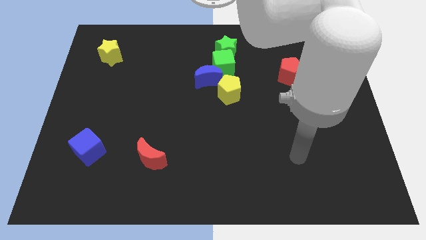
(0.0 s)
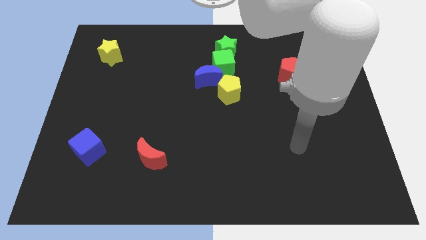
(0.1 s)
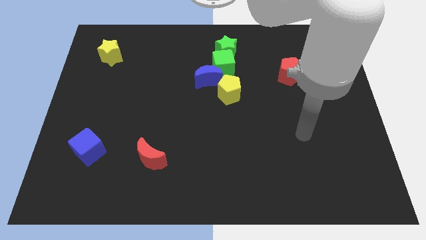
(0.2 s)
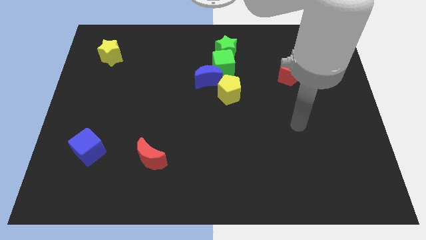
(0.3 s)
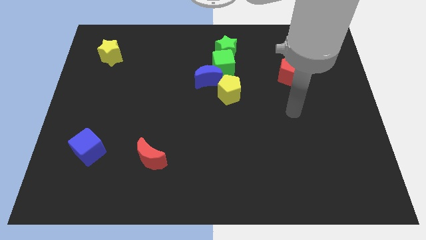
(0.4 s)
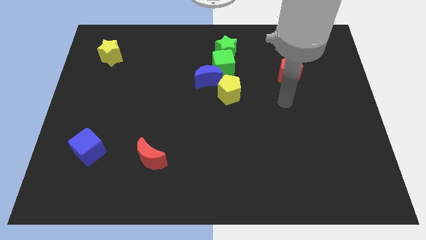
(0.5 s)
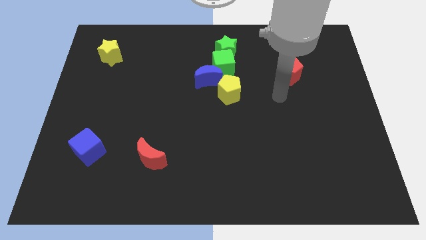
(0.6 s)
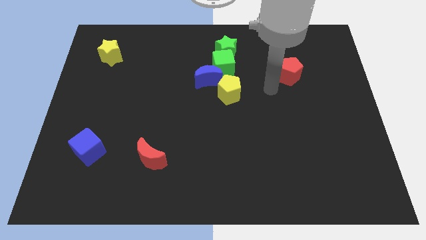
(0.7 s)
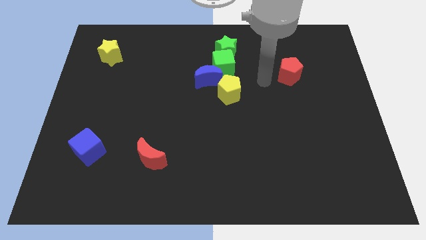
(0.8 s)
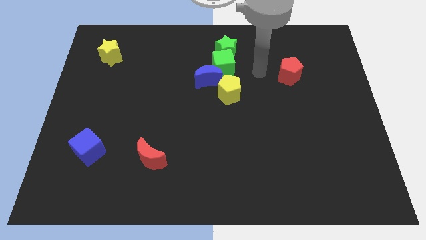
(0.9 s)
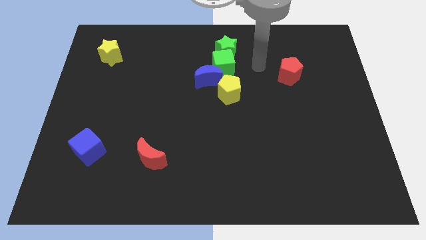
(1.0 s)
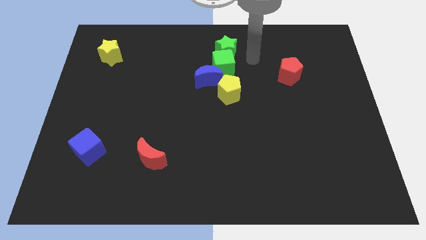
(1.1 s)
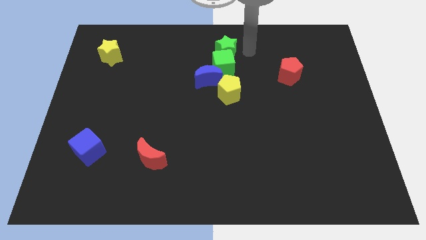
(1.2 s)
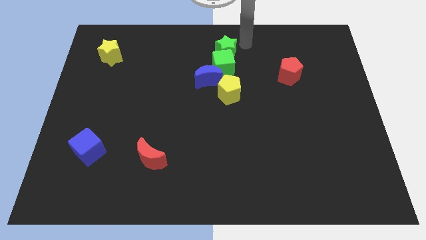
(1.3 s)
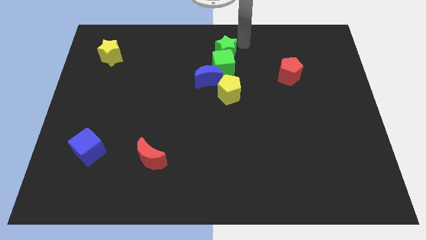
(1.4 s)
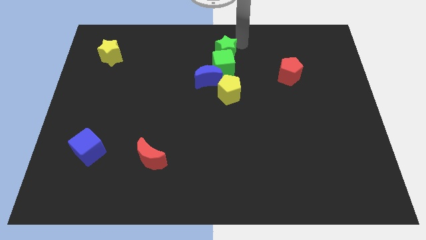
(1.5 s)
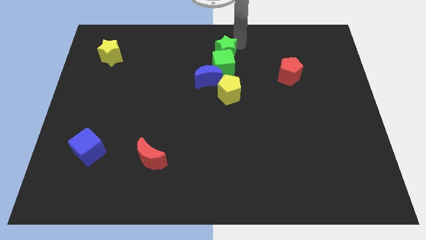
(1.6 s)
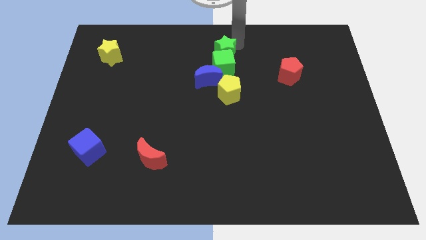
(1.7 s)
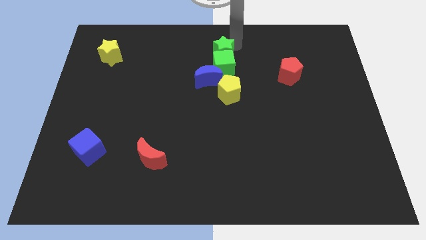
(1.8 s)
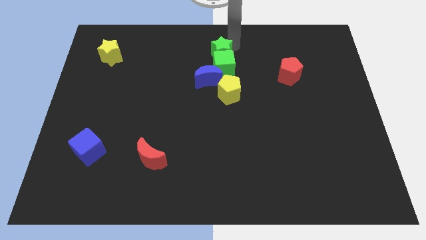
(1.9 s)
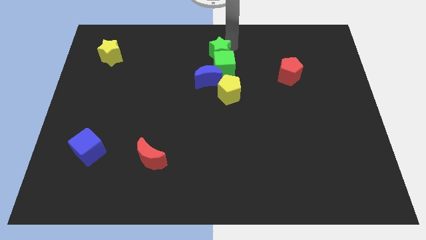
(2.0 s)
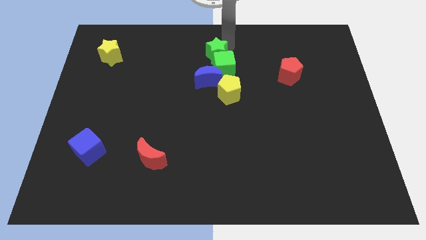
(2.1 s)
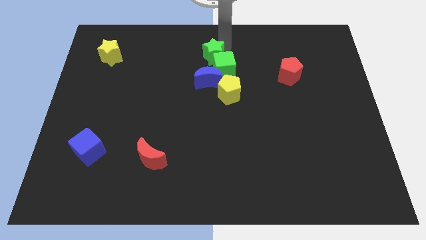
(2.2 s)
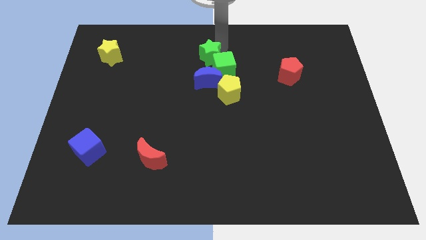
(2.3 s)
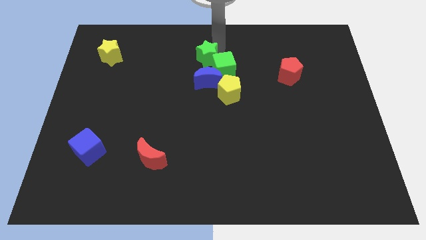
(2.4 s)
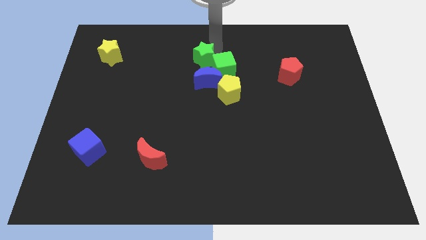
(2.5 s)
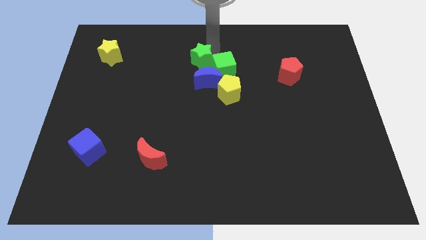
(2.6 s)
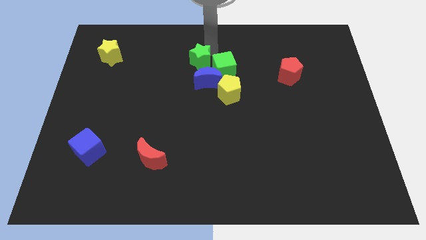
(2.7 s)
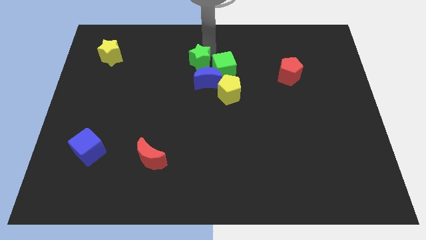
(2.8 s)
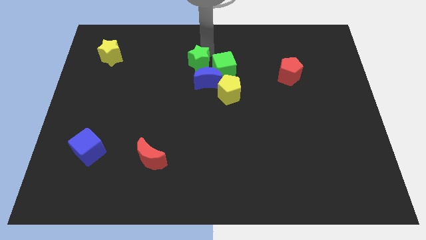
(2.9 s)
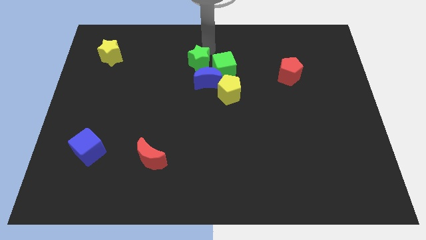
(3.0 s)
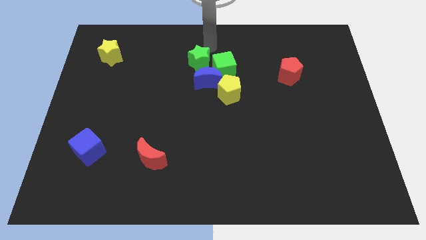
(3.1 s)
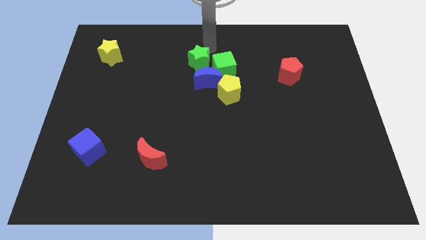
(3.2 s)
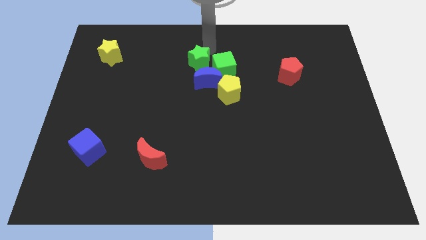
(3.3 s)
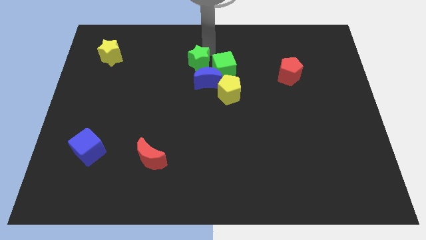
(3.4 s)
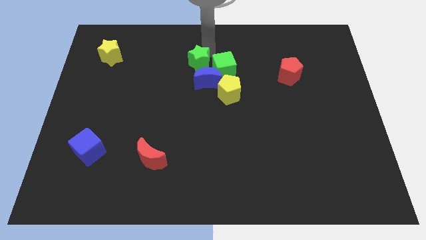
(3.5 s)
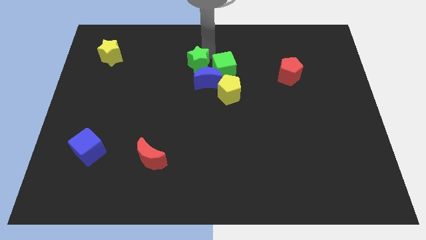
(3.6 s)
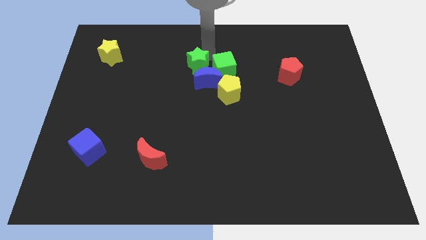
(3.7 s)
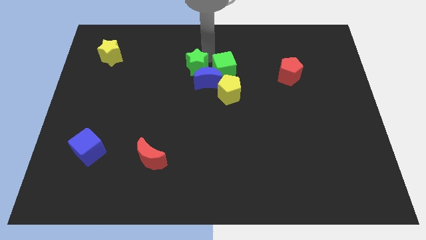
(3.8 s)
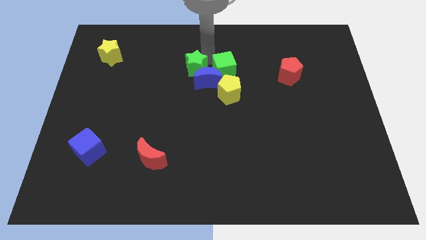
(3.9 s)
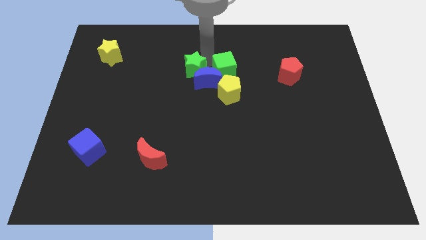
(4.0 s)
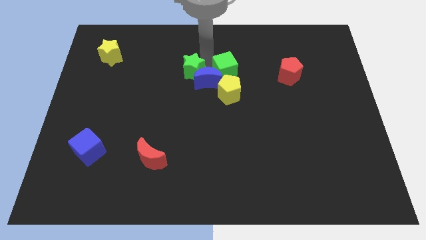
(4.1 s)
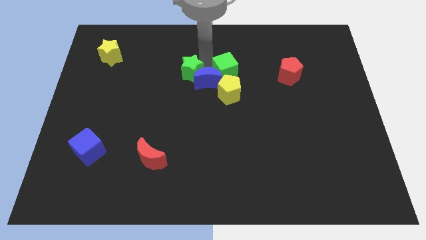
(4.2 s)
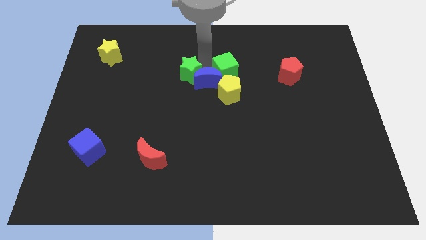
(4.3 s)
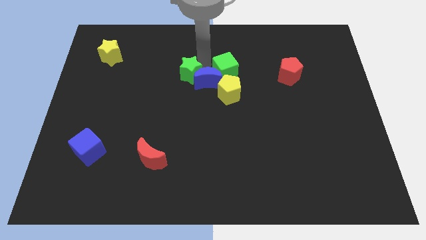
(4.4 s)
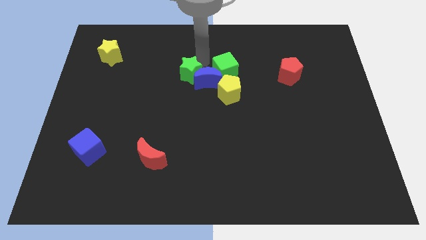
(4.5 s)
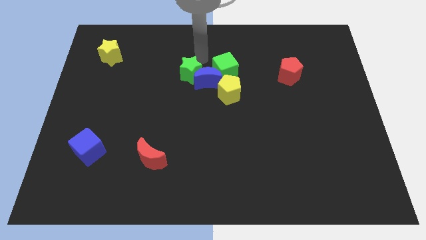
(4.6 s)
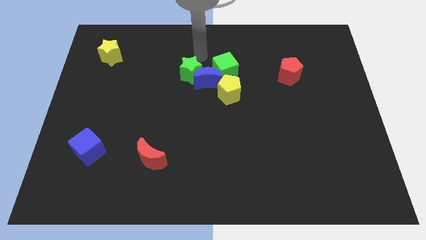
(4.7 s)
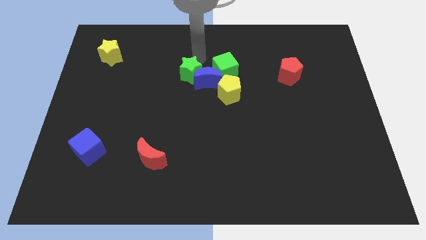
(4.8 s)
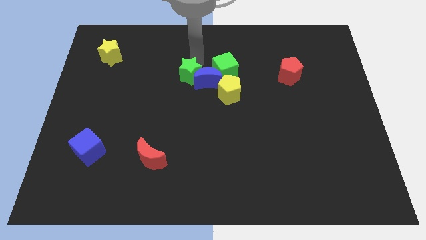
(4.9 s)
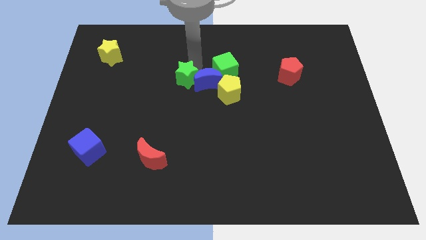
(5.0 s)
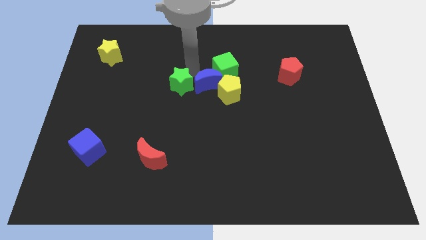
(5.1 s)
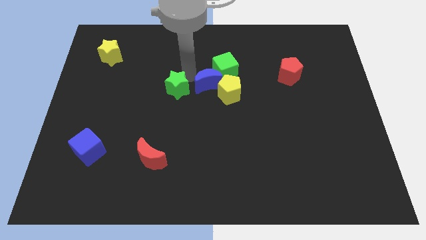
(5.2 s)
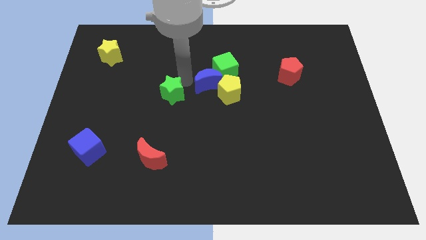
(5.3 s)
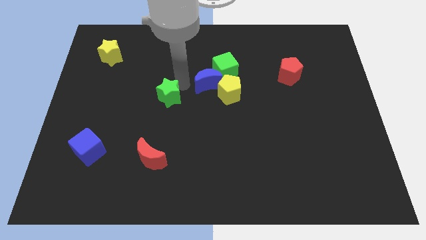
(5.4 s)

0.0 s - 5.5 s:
slide the green star downwards and then to the left

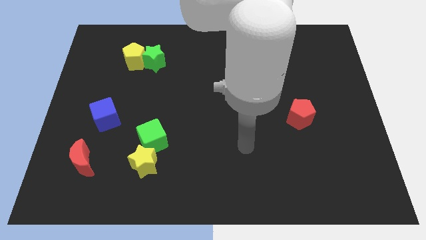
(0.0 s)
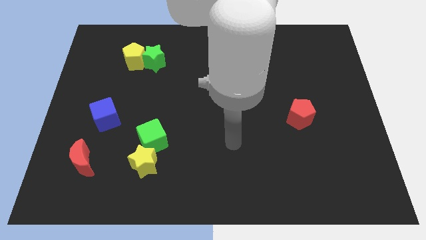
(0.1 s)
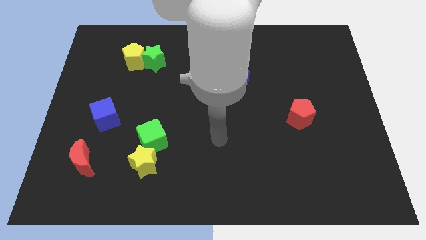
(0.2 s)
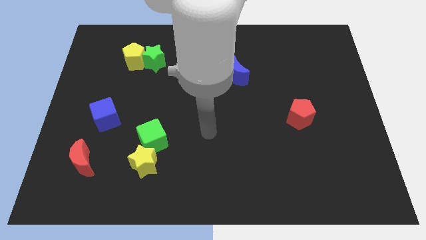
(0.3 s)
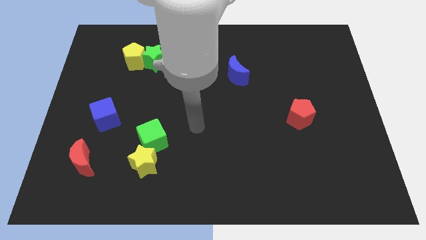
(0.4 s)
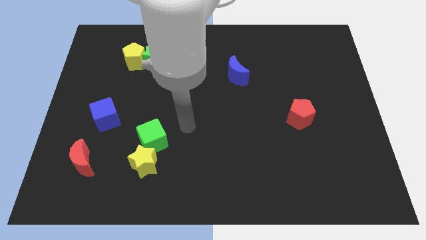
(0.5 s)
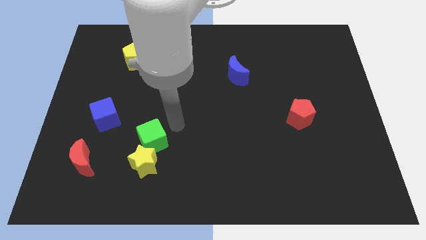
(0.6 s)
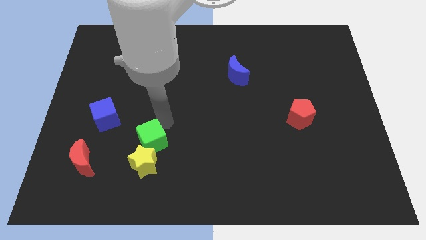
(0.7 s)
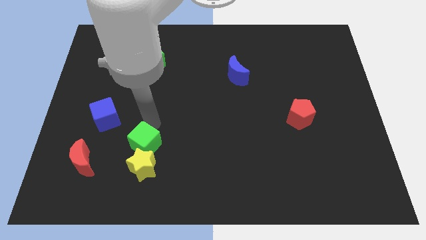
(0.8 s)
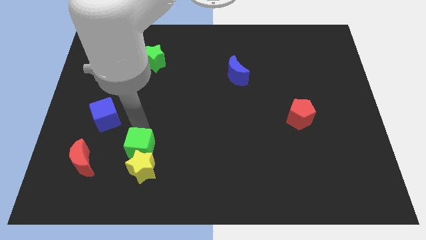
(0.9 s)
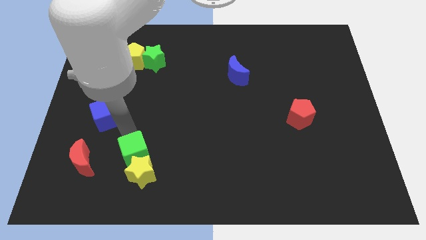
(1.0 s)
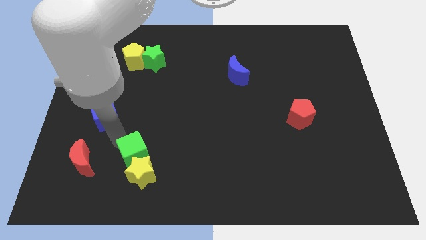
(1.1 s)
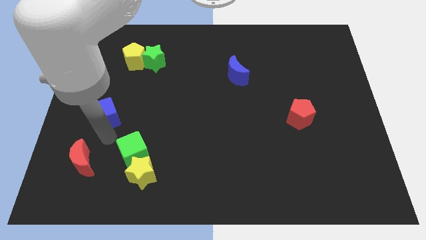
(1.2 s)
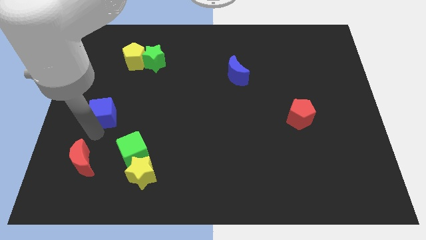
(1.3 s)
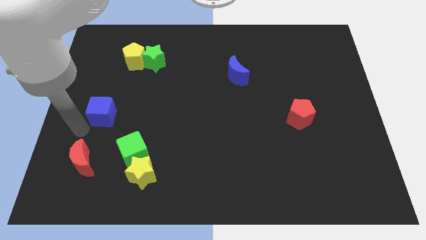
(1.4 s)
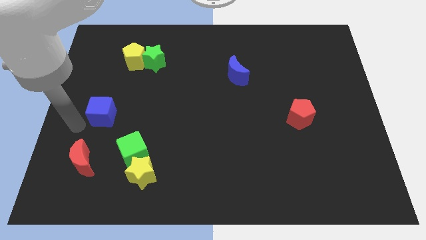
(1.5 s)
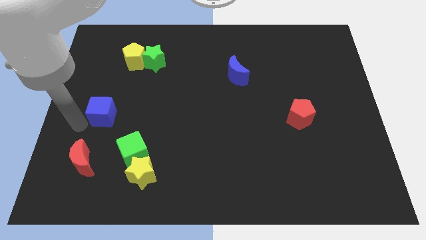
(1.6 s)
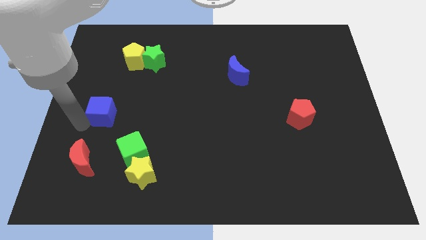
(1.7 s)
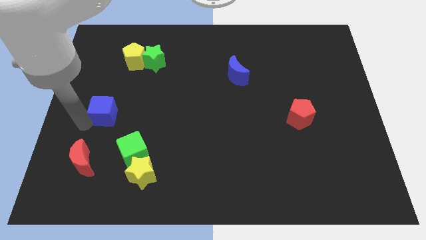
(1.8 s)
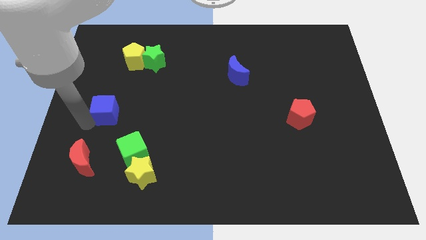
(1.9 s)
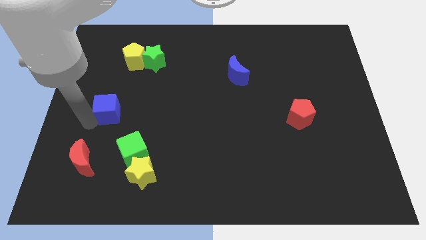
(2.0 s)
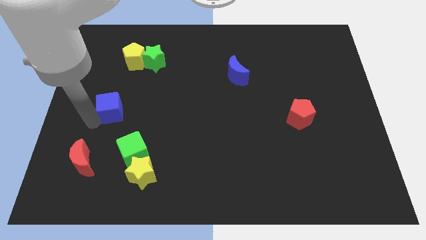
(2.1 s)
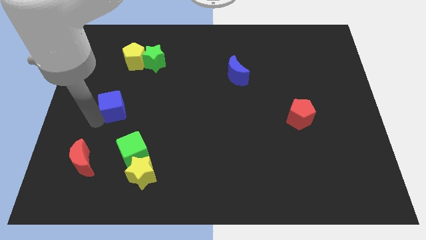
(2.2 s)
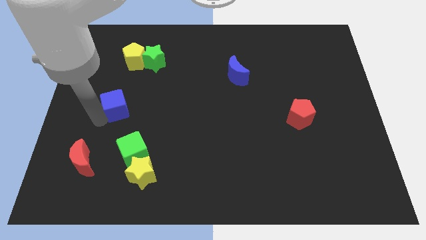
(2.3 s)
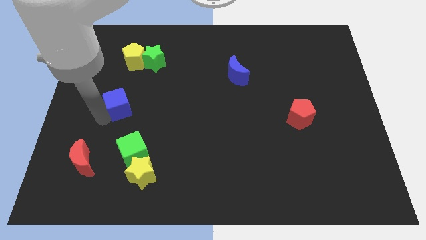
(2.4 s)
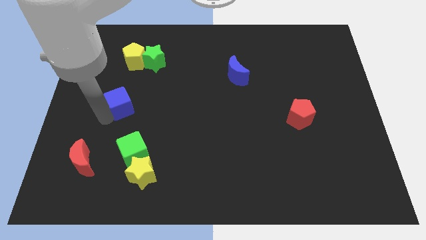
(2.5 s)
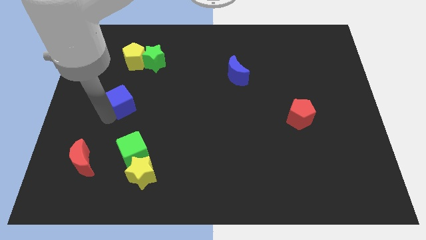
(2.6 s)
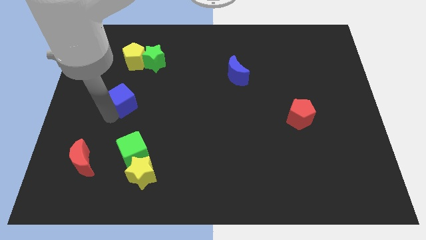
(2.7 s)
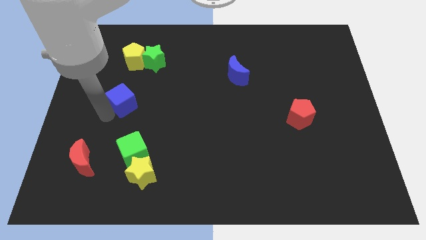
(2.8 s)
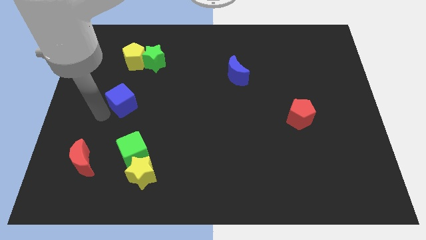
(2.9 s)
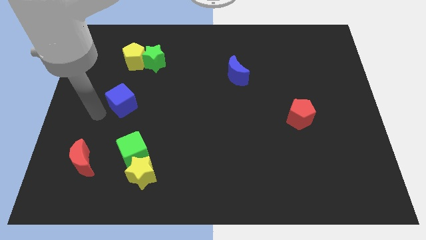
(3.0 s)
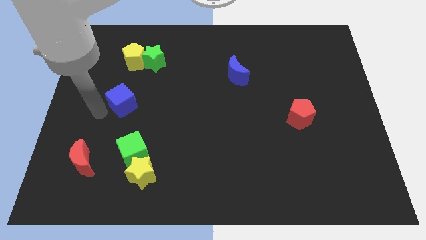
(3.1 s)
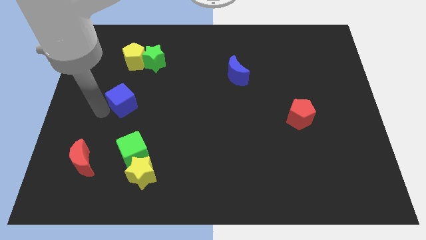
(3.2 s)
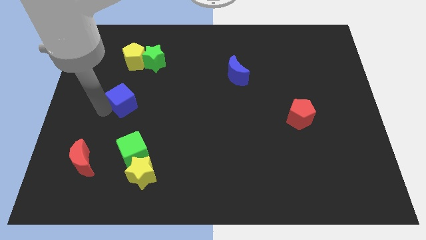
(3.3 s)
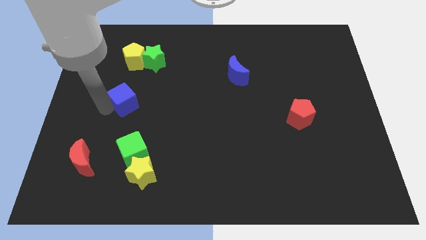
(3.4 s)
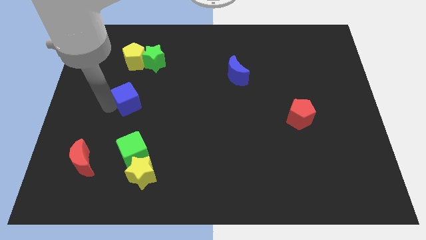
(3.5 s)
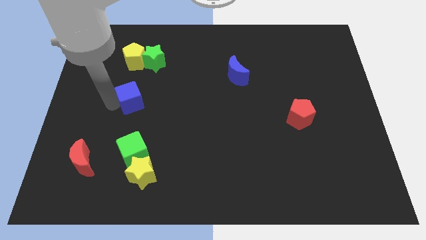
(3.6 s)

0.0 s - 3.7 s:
move the blue cube upwards and right diagonally a bit
